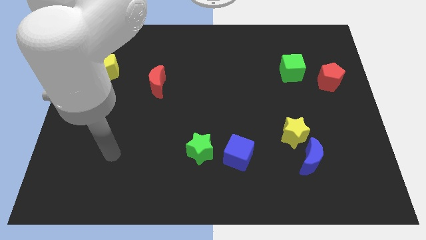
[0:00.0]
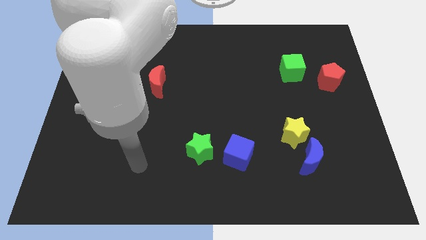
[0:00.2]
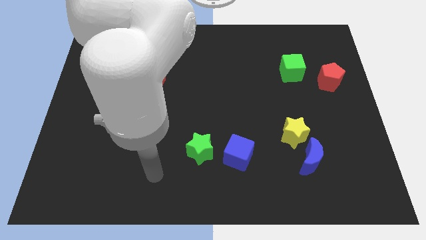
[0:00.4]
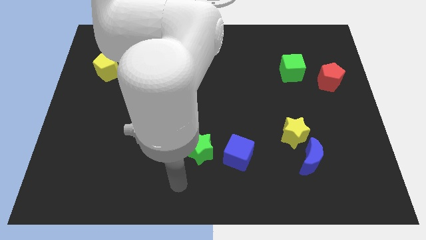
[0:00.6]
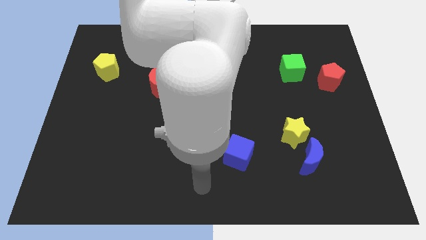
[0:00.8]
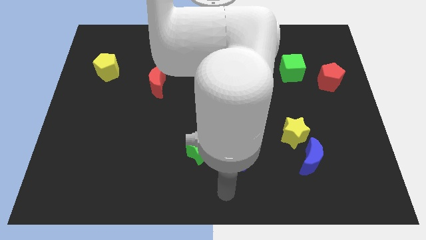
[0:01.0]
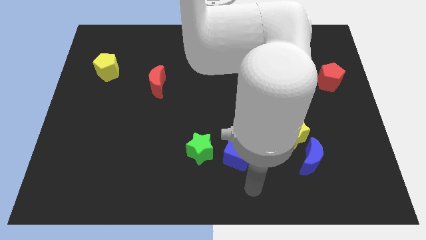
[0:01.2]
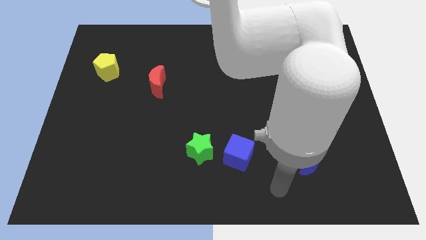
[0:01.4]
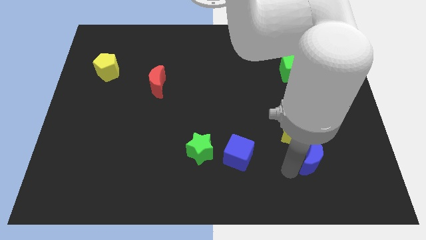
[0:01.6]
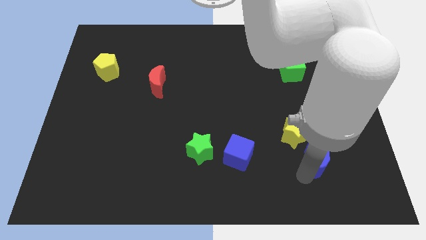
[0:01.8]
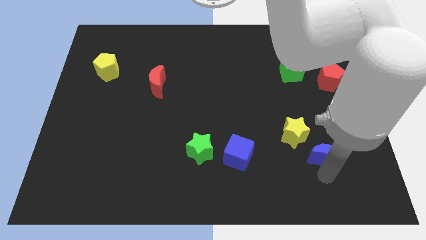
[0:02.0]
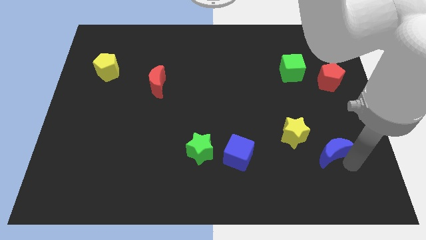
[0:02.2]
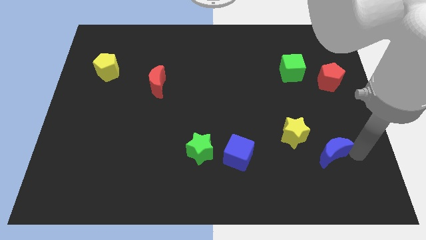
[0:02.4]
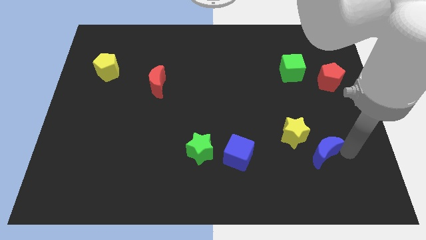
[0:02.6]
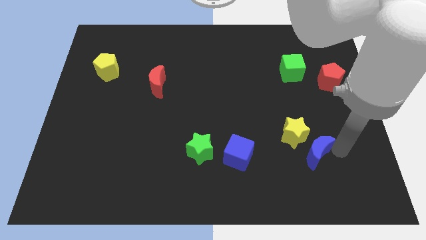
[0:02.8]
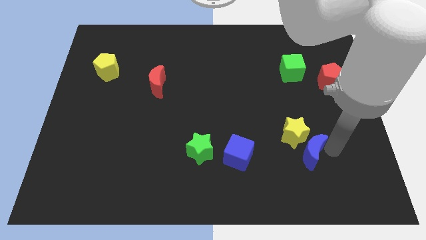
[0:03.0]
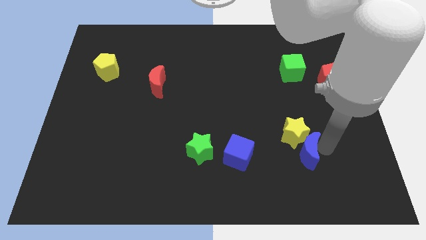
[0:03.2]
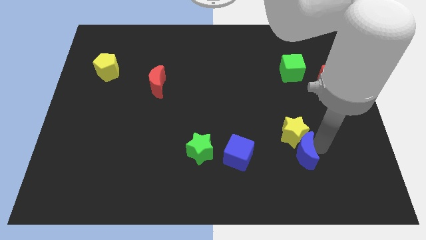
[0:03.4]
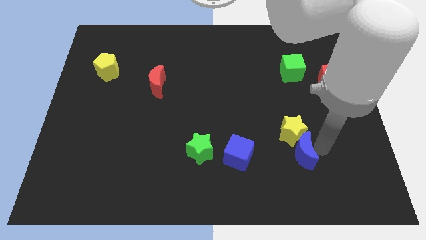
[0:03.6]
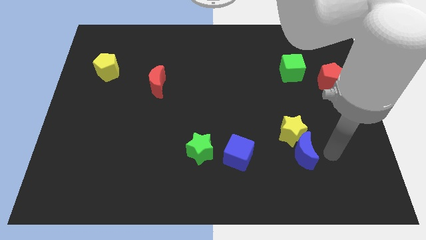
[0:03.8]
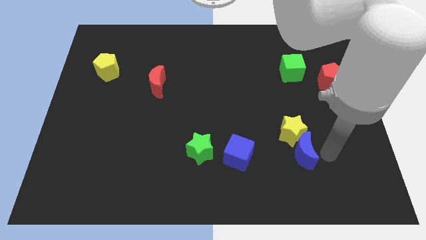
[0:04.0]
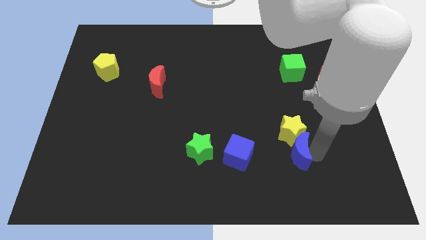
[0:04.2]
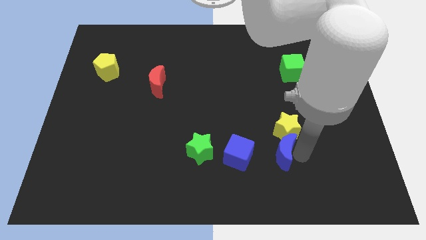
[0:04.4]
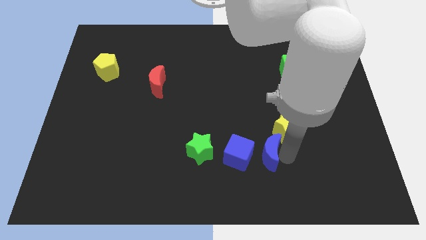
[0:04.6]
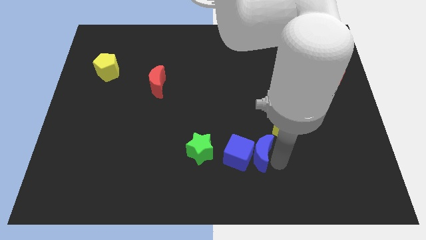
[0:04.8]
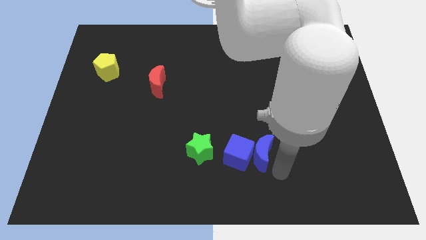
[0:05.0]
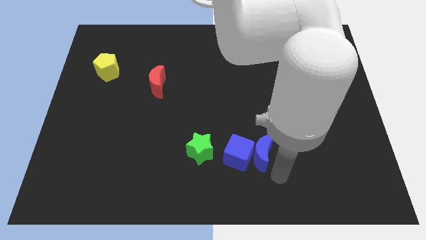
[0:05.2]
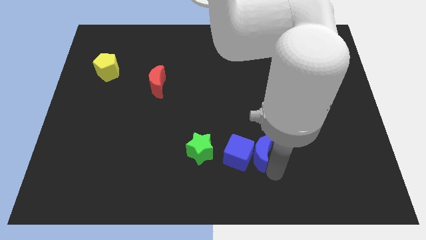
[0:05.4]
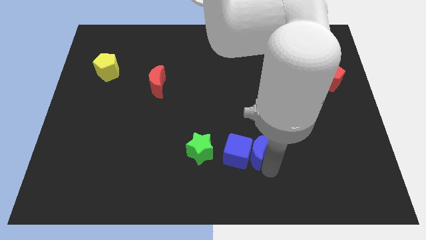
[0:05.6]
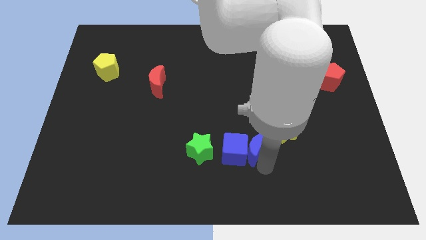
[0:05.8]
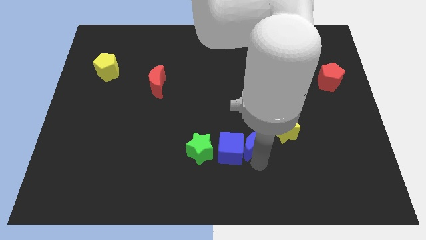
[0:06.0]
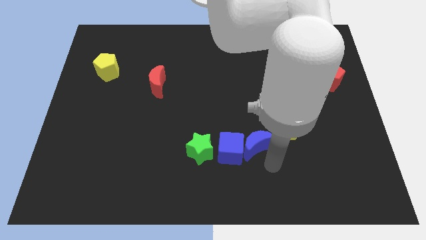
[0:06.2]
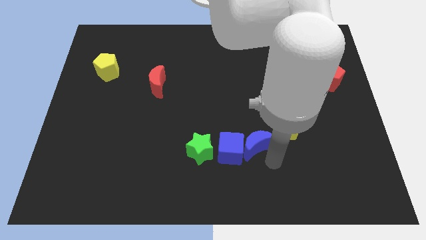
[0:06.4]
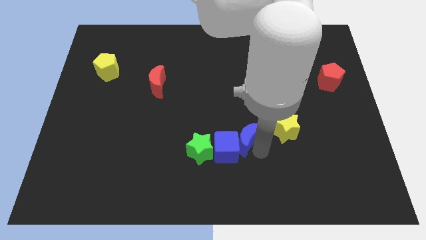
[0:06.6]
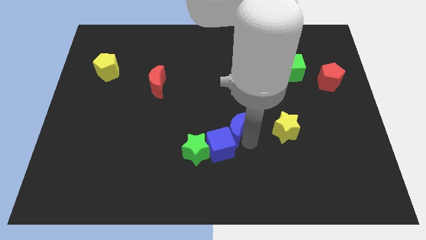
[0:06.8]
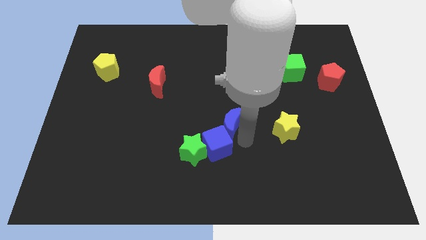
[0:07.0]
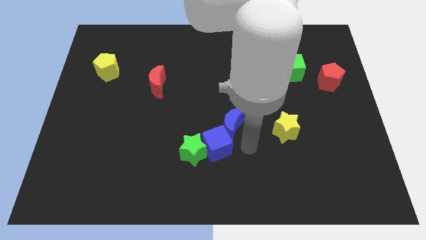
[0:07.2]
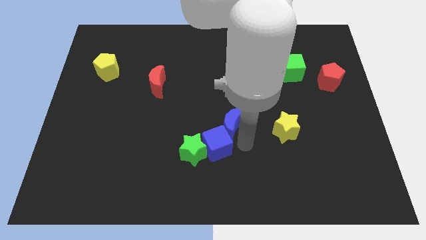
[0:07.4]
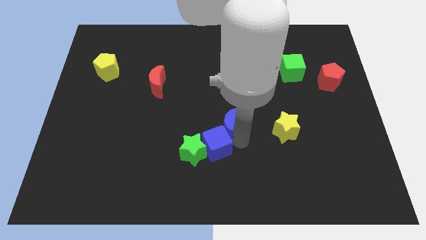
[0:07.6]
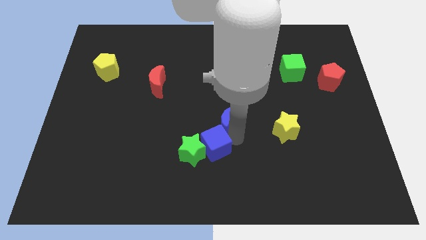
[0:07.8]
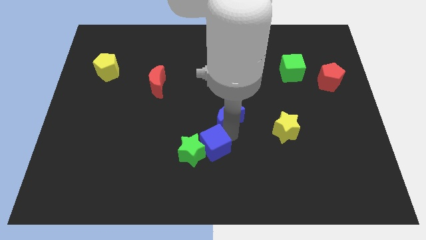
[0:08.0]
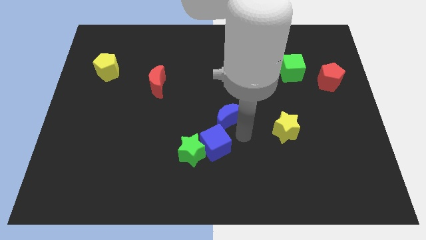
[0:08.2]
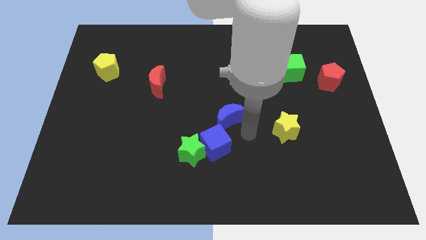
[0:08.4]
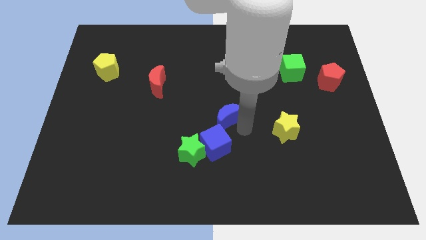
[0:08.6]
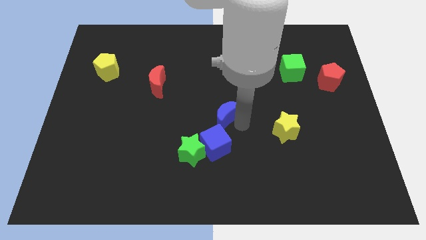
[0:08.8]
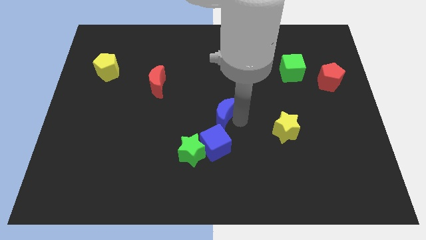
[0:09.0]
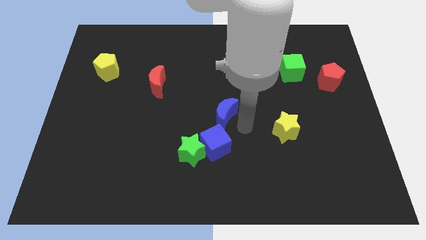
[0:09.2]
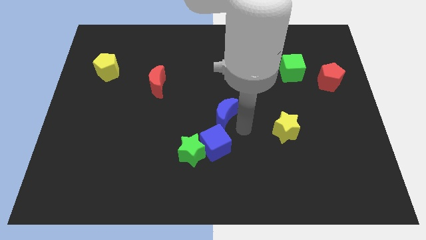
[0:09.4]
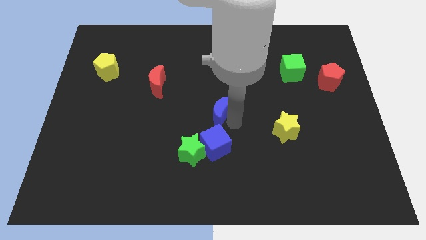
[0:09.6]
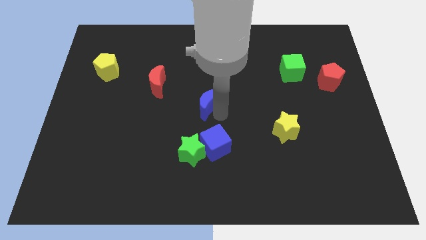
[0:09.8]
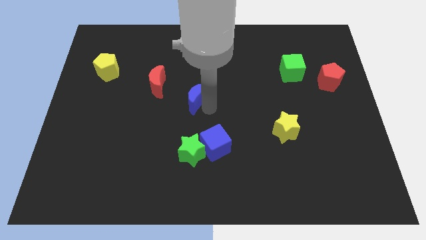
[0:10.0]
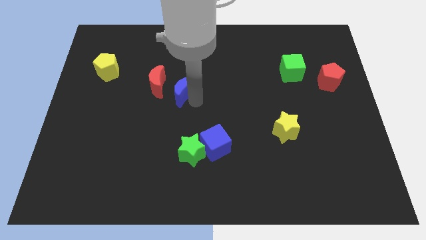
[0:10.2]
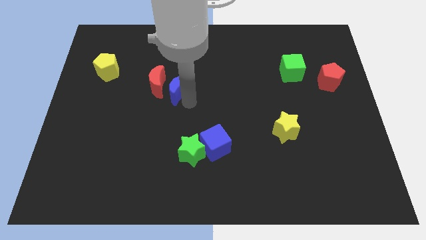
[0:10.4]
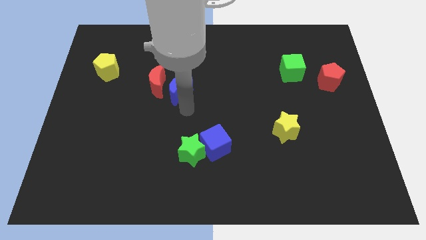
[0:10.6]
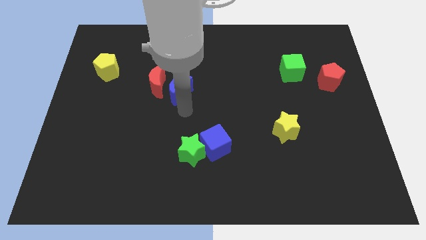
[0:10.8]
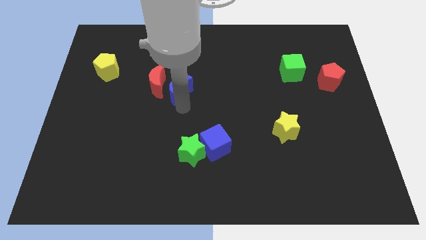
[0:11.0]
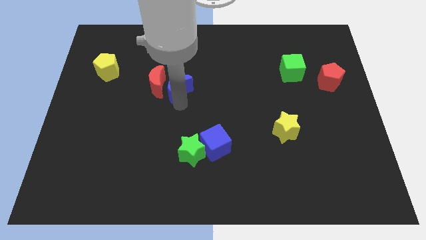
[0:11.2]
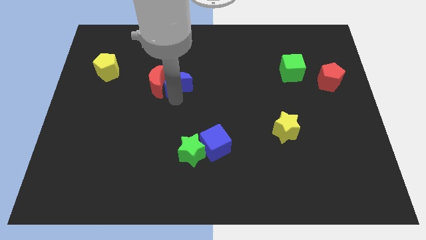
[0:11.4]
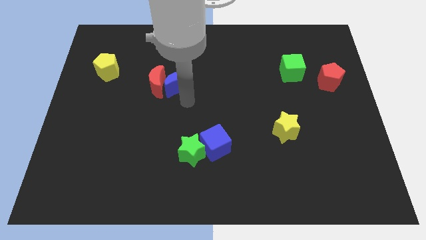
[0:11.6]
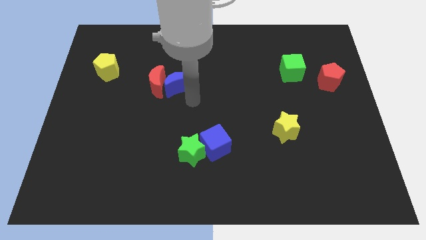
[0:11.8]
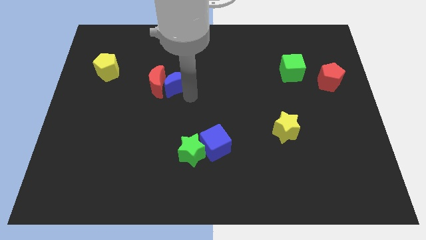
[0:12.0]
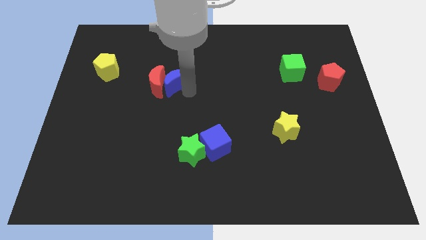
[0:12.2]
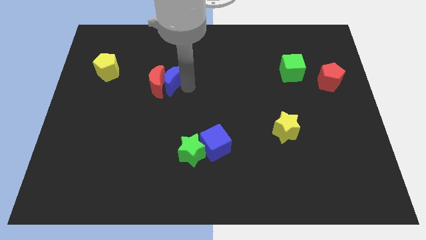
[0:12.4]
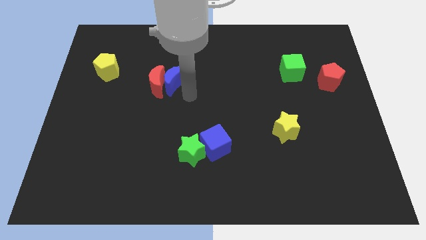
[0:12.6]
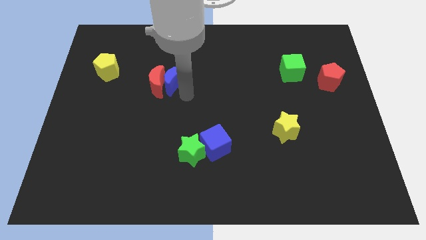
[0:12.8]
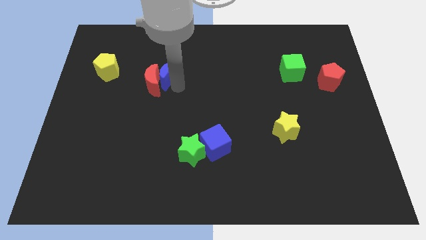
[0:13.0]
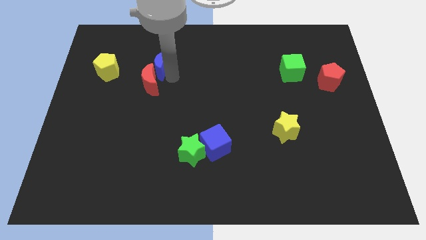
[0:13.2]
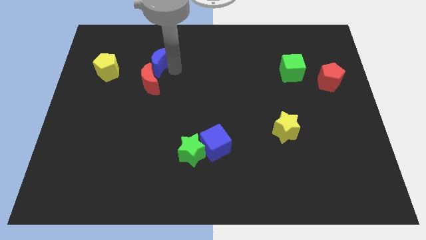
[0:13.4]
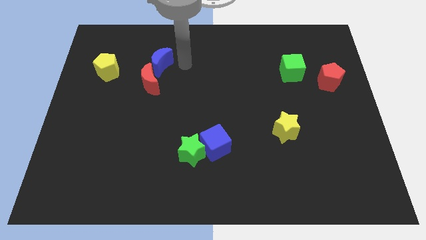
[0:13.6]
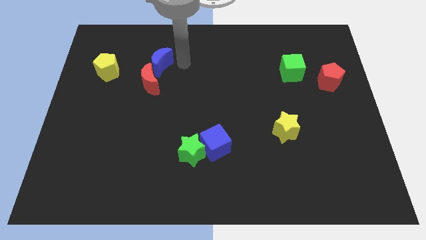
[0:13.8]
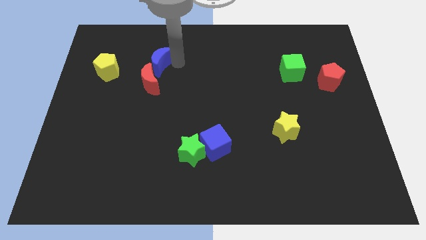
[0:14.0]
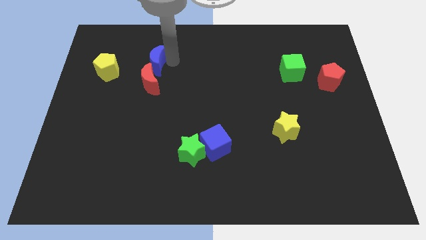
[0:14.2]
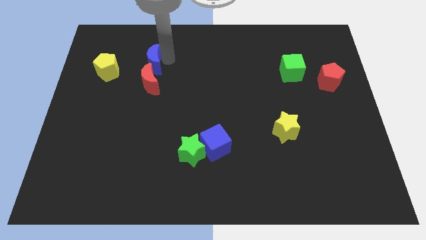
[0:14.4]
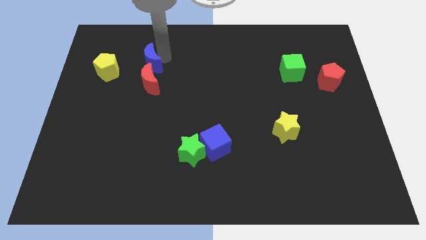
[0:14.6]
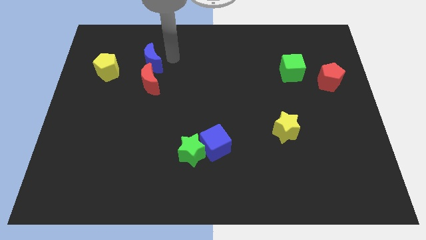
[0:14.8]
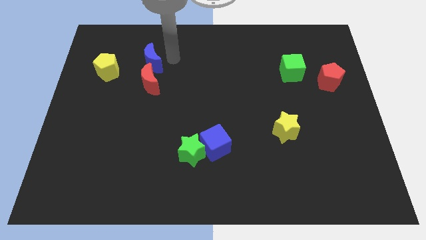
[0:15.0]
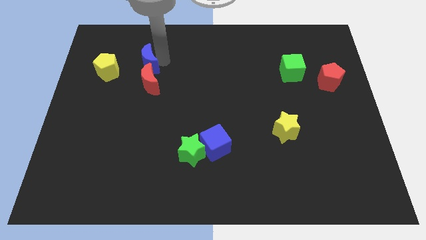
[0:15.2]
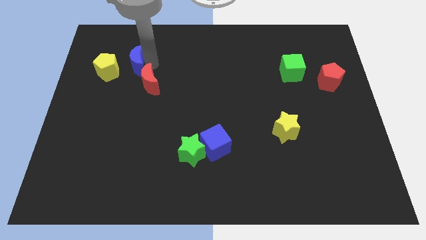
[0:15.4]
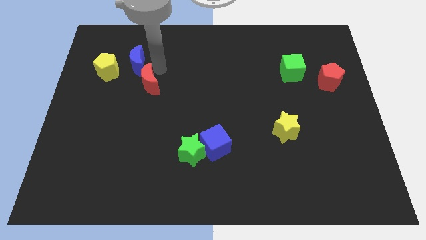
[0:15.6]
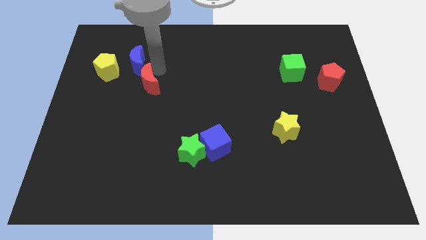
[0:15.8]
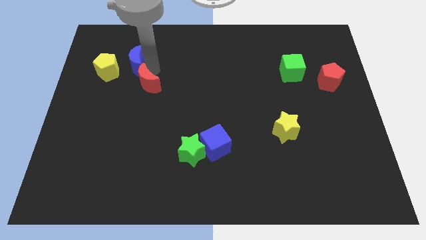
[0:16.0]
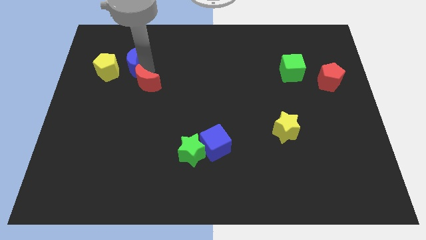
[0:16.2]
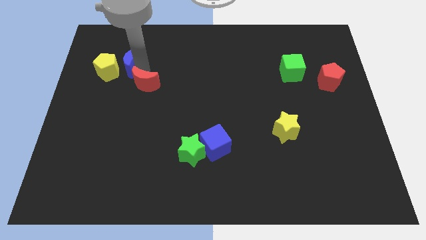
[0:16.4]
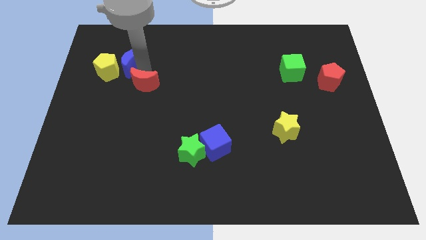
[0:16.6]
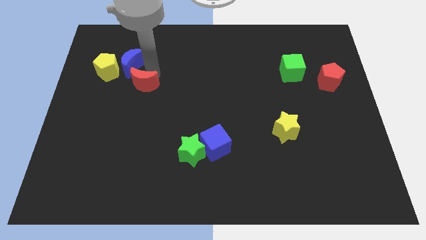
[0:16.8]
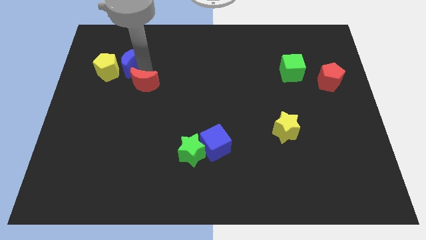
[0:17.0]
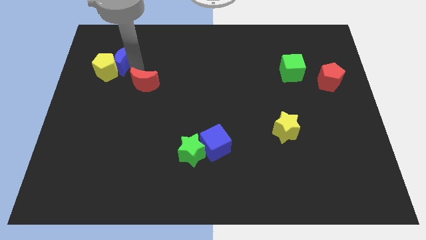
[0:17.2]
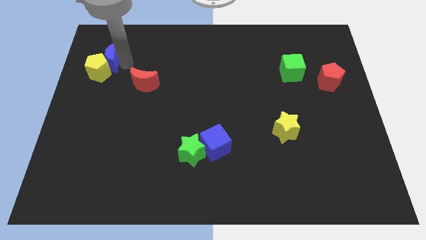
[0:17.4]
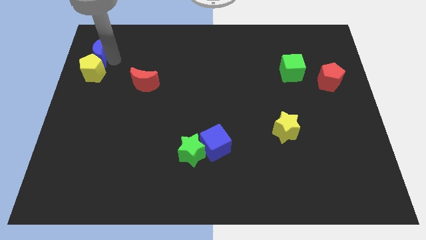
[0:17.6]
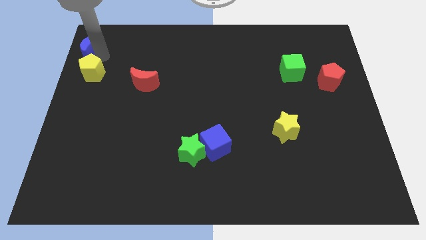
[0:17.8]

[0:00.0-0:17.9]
slide the blue moon to the upper left corner
